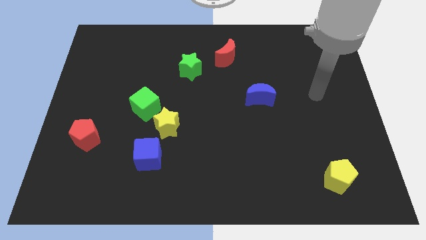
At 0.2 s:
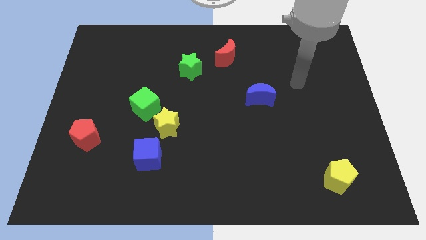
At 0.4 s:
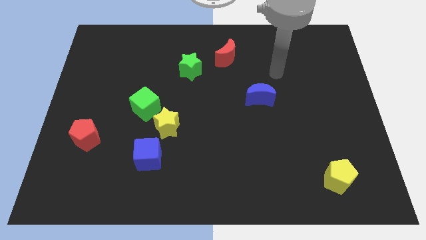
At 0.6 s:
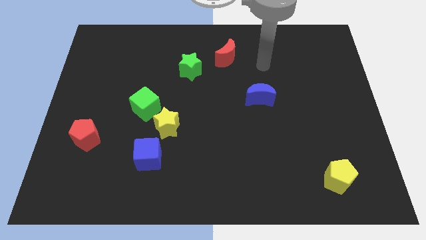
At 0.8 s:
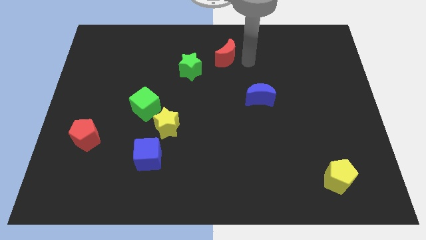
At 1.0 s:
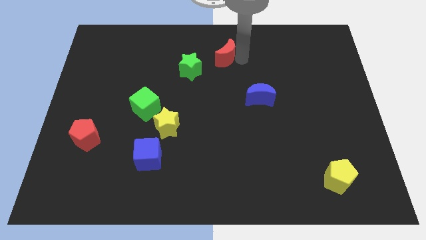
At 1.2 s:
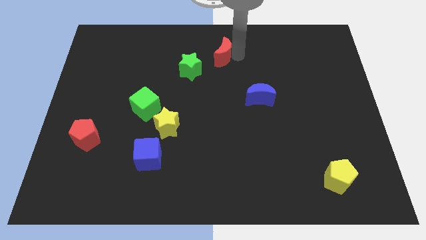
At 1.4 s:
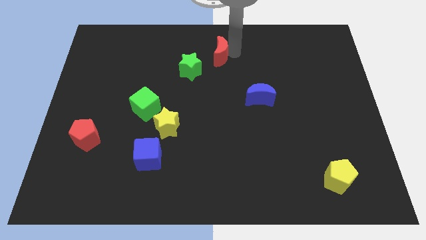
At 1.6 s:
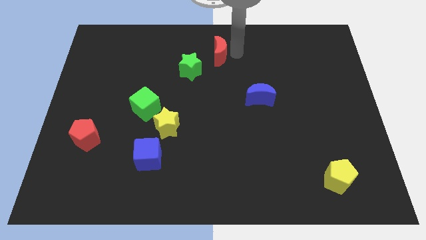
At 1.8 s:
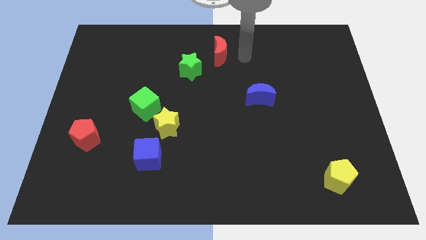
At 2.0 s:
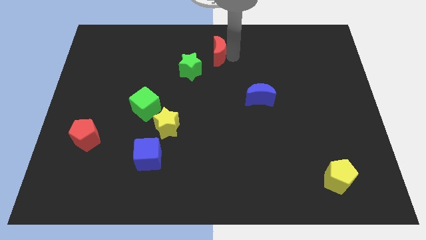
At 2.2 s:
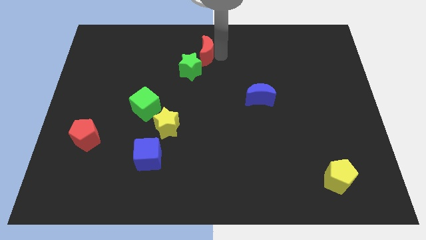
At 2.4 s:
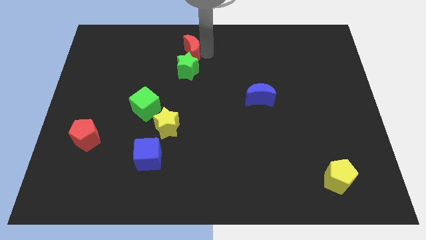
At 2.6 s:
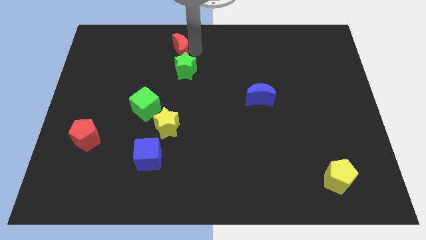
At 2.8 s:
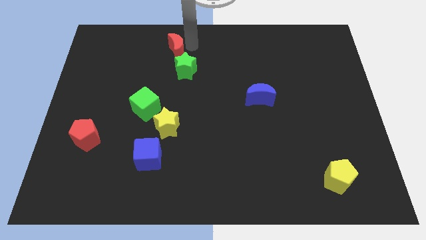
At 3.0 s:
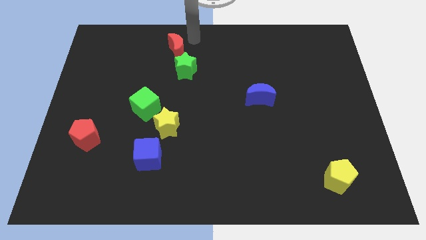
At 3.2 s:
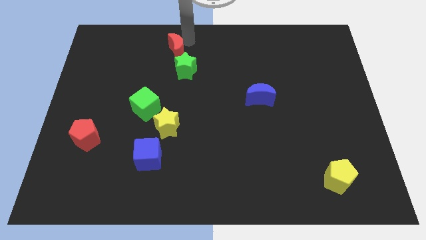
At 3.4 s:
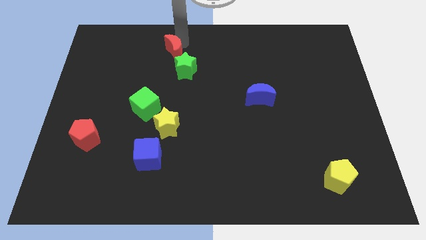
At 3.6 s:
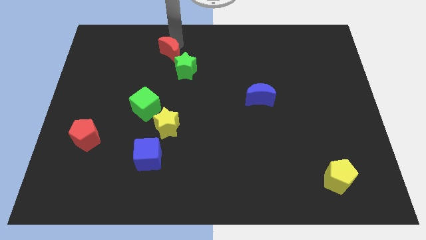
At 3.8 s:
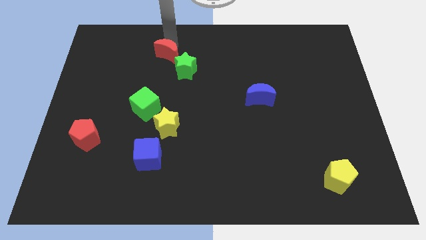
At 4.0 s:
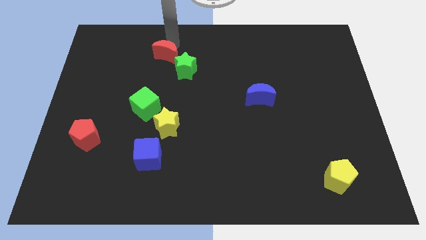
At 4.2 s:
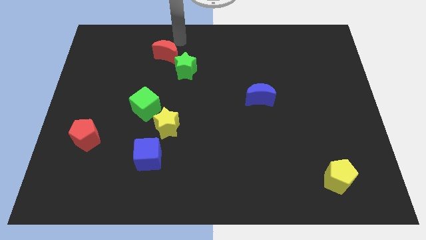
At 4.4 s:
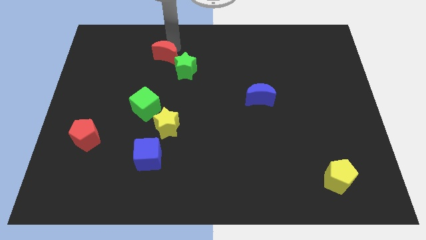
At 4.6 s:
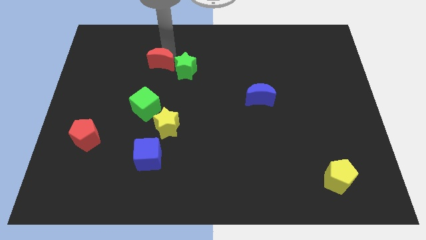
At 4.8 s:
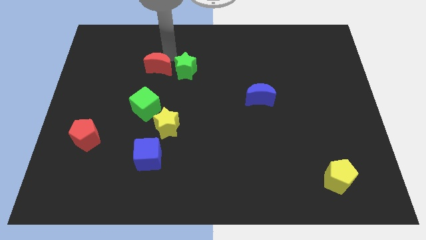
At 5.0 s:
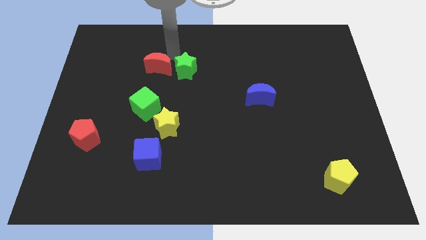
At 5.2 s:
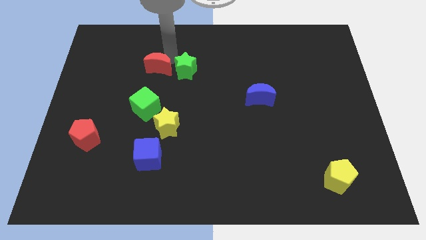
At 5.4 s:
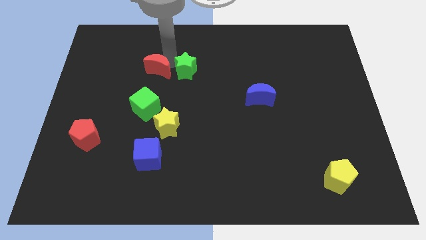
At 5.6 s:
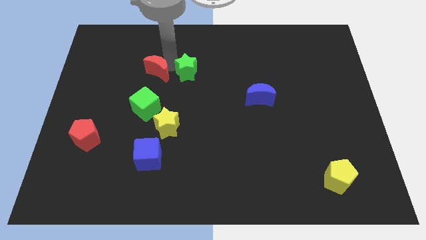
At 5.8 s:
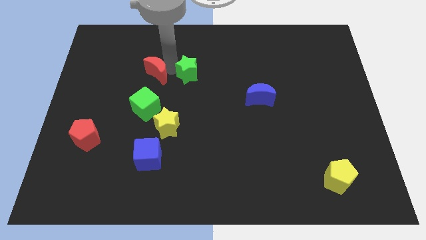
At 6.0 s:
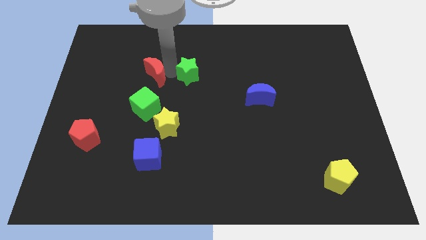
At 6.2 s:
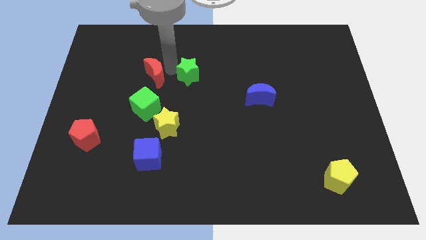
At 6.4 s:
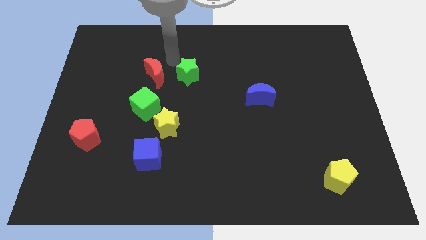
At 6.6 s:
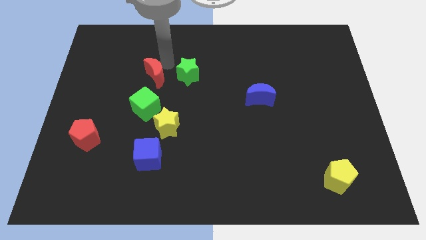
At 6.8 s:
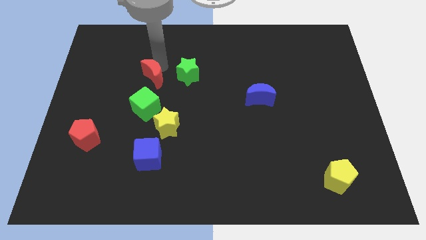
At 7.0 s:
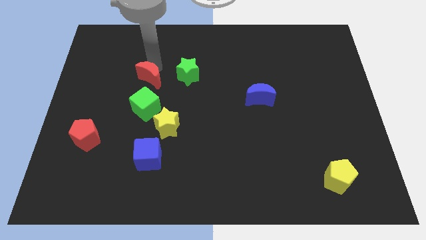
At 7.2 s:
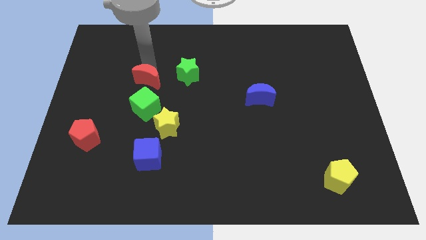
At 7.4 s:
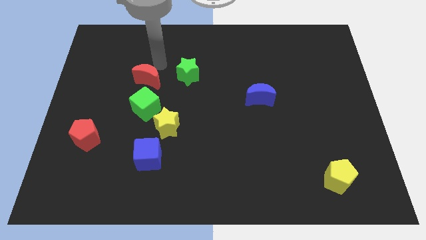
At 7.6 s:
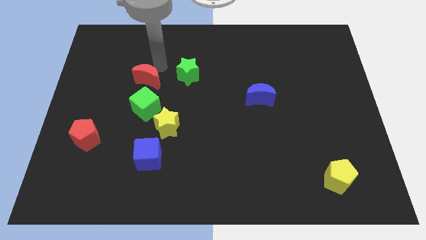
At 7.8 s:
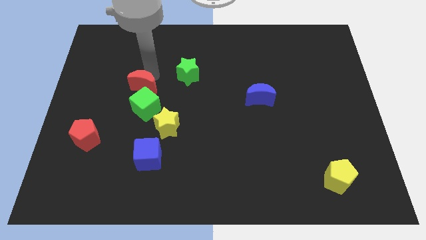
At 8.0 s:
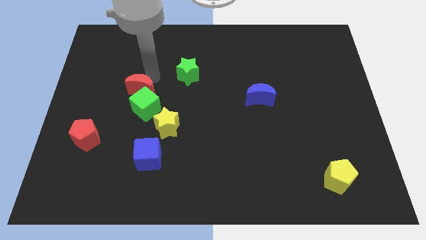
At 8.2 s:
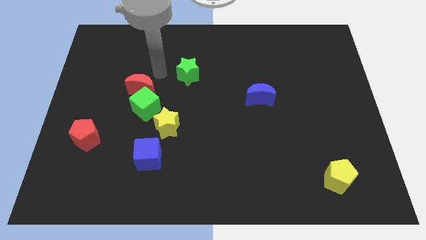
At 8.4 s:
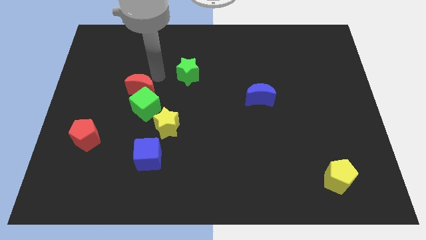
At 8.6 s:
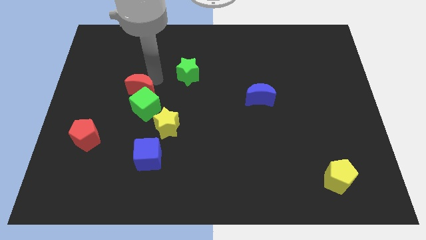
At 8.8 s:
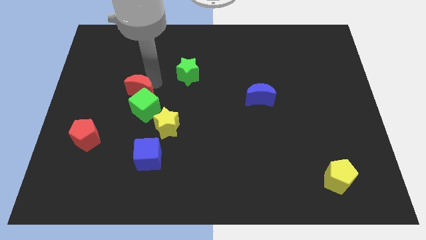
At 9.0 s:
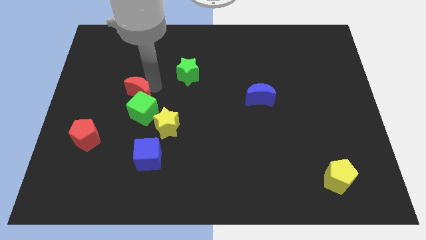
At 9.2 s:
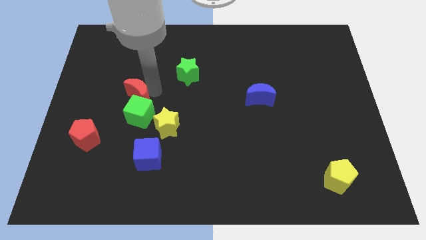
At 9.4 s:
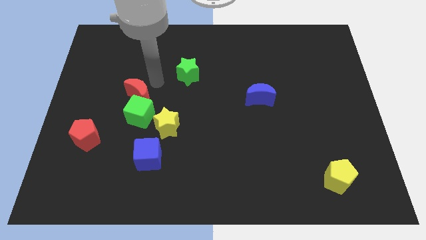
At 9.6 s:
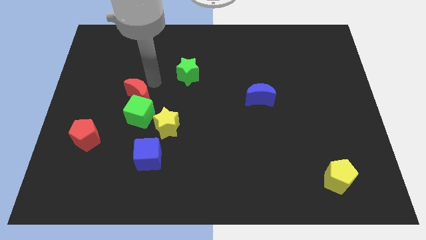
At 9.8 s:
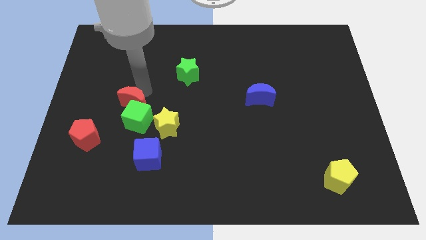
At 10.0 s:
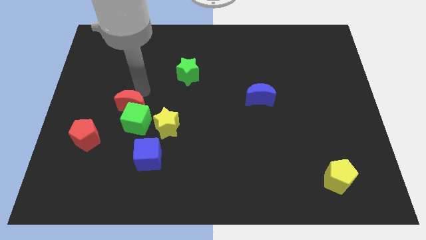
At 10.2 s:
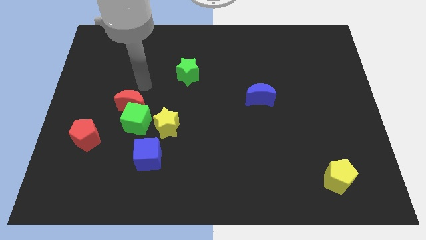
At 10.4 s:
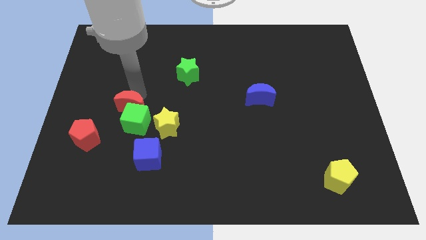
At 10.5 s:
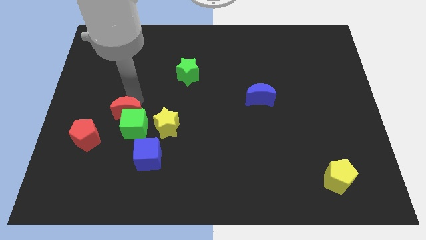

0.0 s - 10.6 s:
put the red moon to the left side of the yellow star

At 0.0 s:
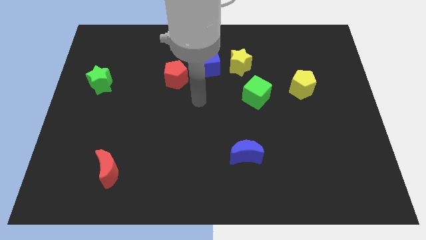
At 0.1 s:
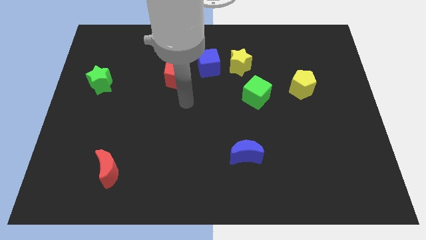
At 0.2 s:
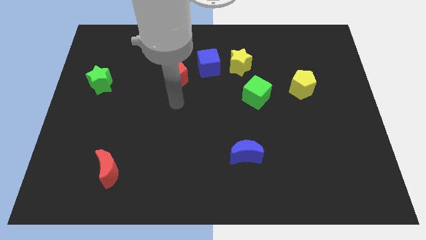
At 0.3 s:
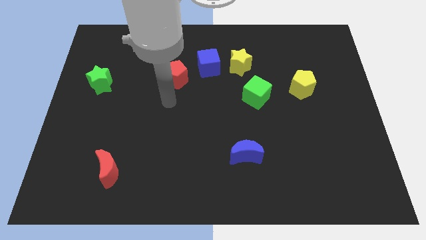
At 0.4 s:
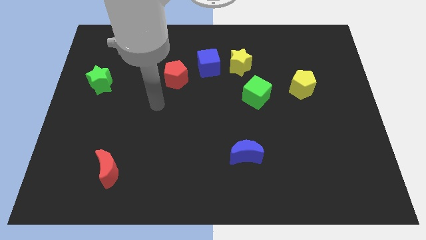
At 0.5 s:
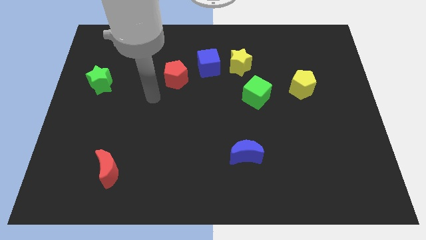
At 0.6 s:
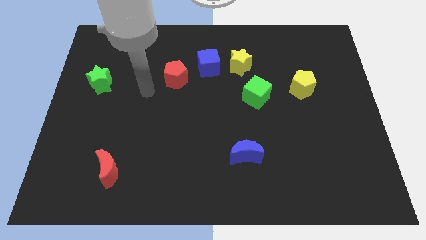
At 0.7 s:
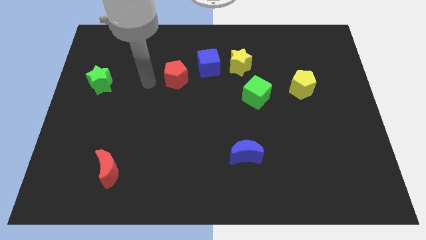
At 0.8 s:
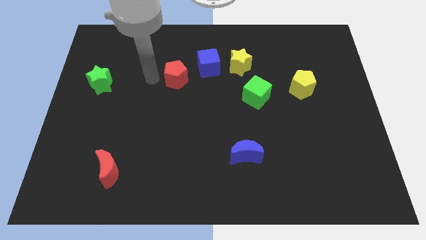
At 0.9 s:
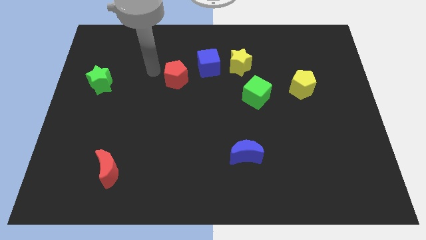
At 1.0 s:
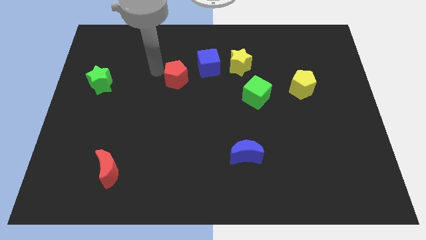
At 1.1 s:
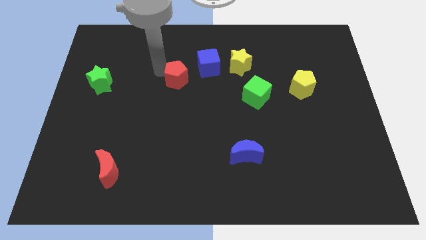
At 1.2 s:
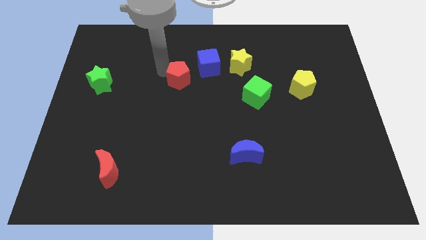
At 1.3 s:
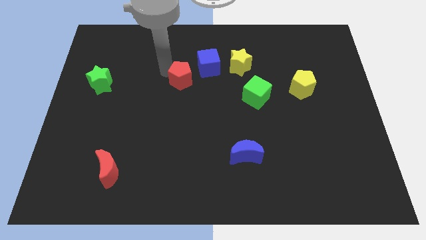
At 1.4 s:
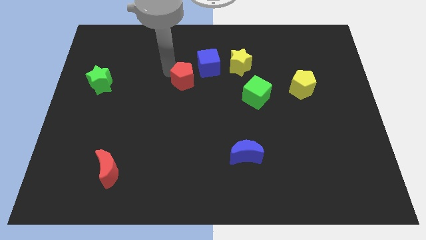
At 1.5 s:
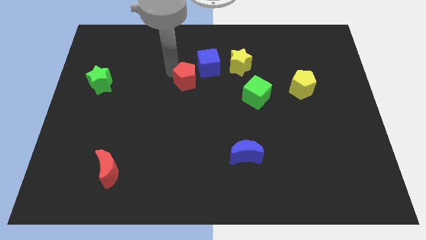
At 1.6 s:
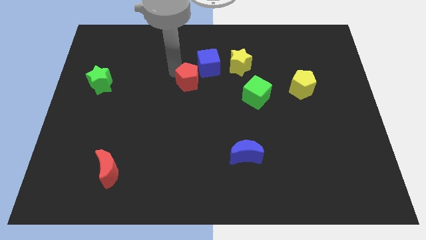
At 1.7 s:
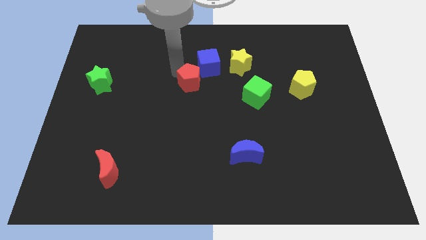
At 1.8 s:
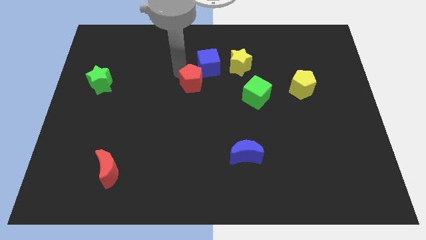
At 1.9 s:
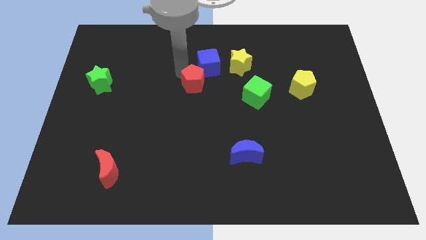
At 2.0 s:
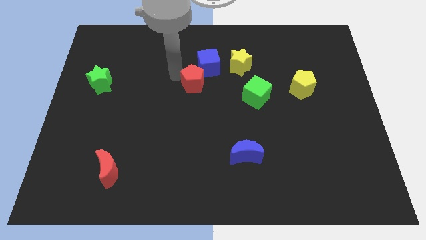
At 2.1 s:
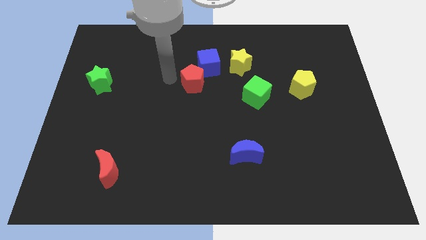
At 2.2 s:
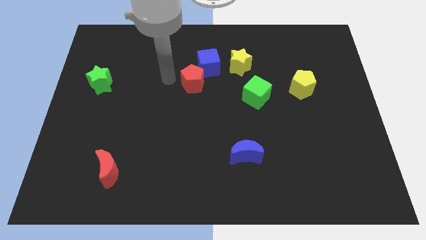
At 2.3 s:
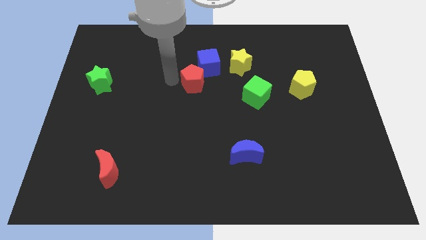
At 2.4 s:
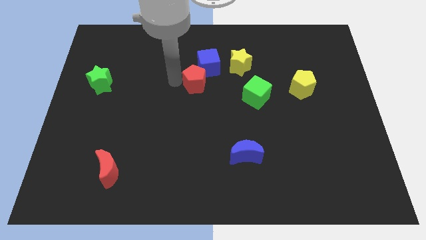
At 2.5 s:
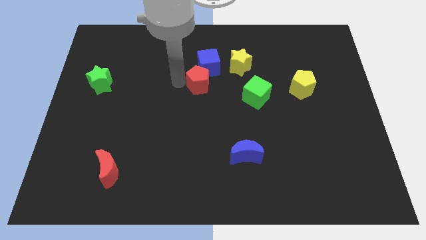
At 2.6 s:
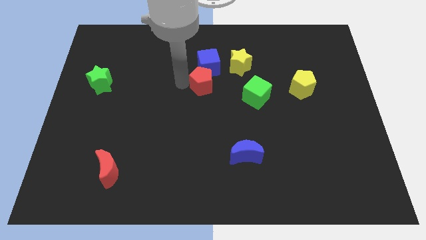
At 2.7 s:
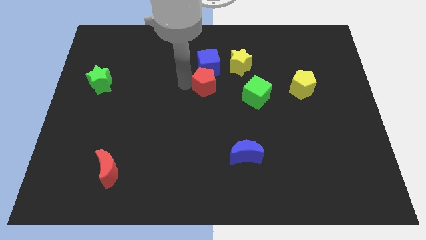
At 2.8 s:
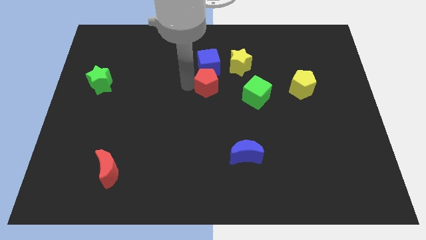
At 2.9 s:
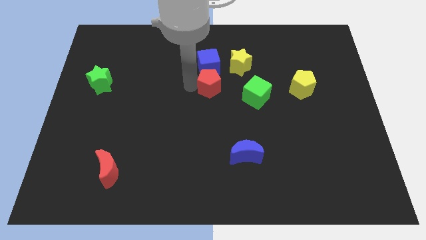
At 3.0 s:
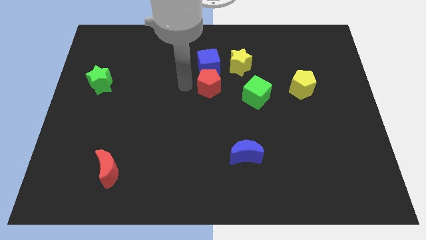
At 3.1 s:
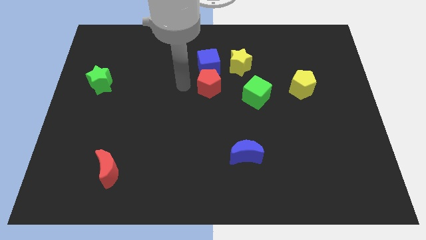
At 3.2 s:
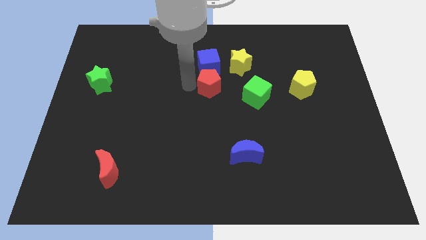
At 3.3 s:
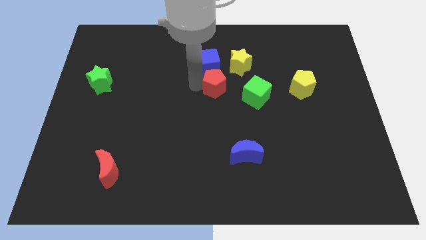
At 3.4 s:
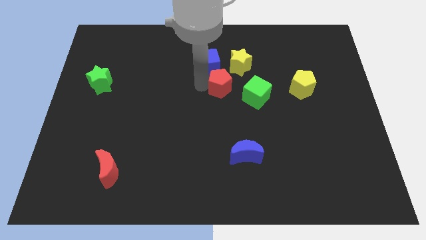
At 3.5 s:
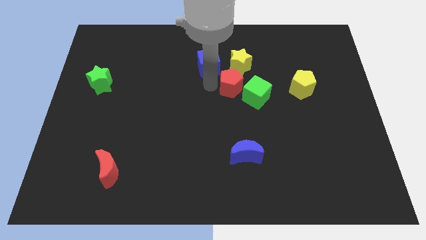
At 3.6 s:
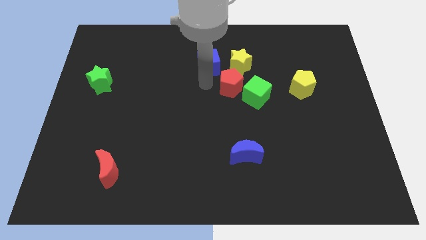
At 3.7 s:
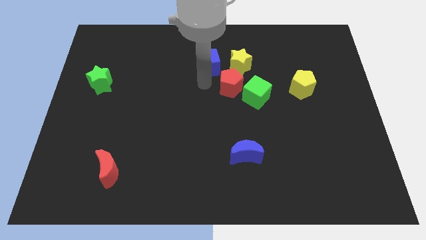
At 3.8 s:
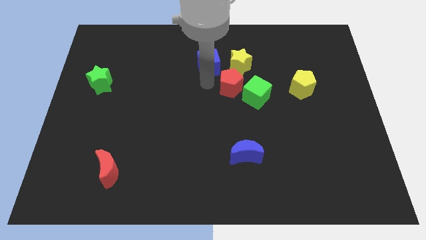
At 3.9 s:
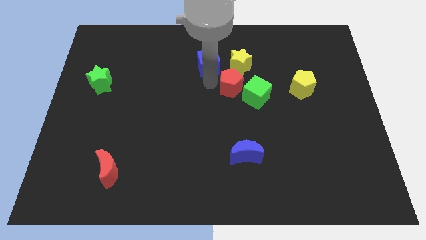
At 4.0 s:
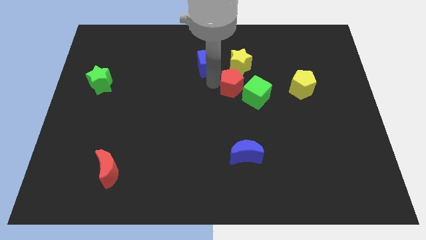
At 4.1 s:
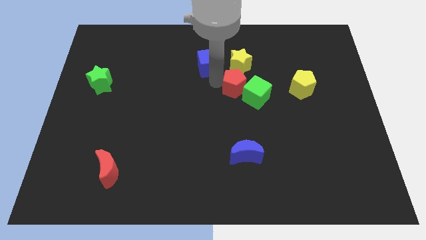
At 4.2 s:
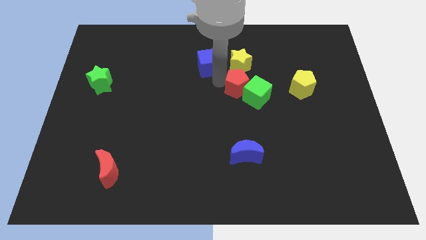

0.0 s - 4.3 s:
push the red pentagon left of the yellow pentagon
